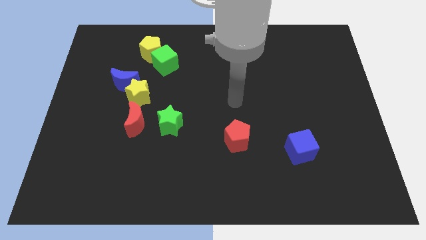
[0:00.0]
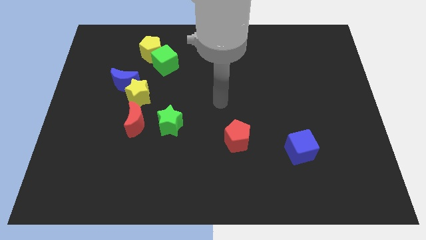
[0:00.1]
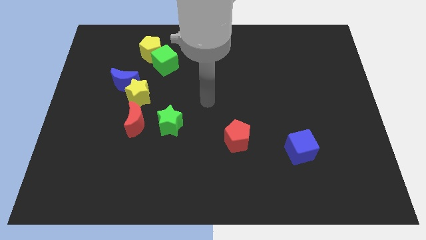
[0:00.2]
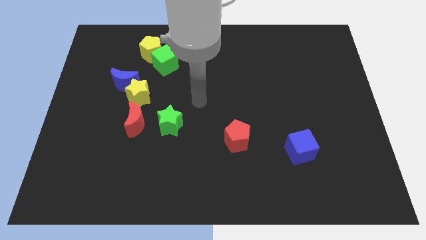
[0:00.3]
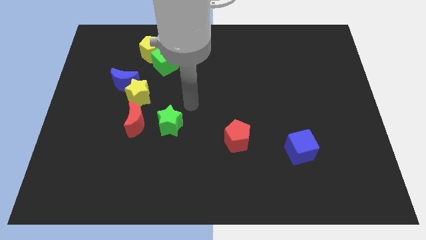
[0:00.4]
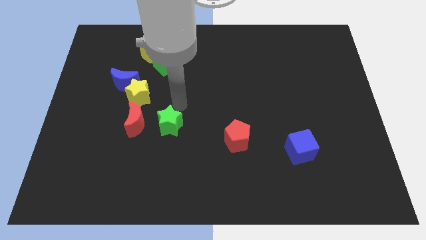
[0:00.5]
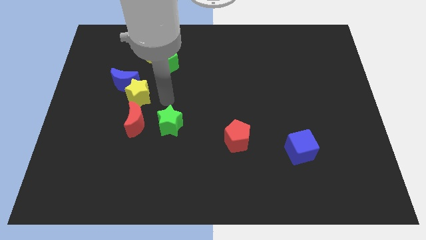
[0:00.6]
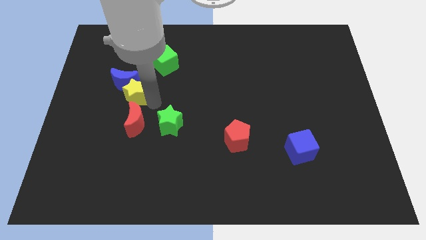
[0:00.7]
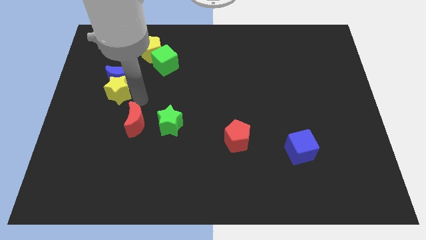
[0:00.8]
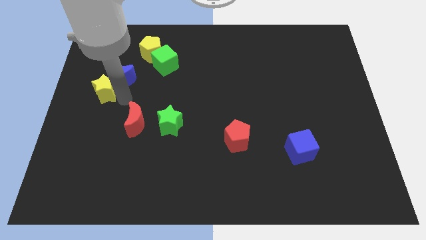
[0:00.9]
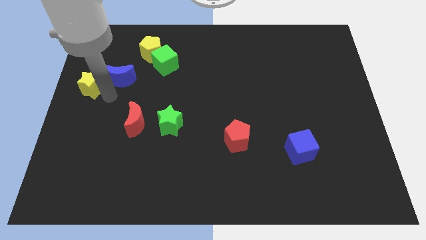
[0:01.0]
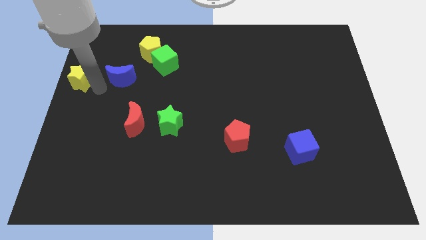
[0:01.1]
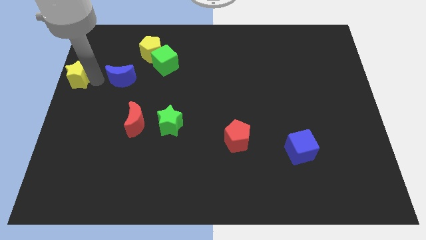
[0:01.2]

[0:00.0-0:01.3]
move the blue moon away from the yellow star

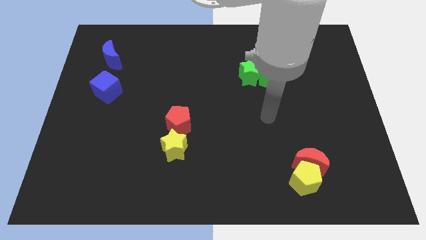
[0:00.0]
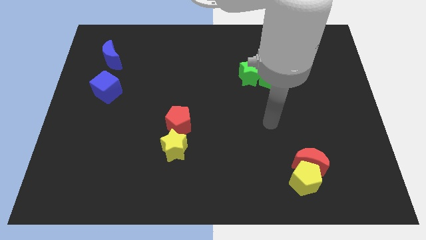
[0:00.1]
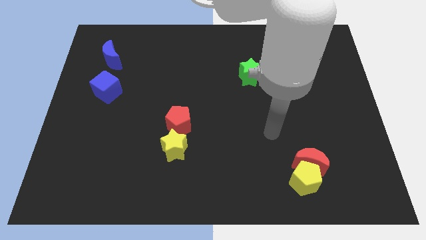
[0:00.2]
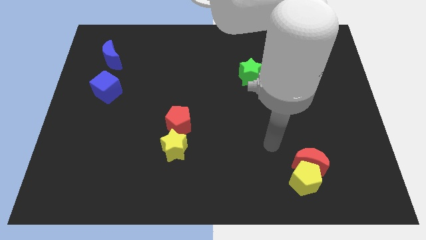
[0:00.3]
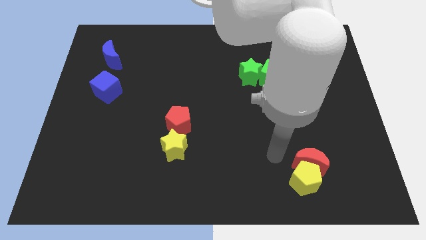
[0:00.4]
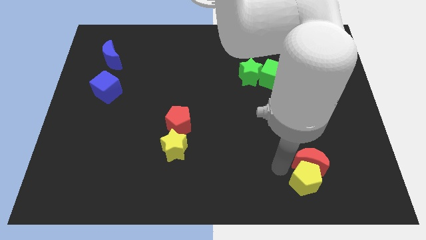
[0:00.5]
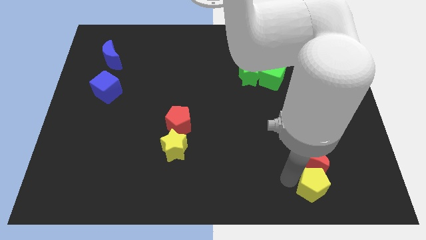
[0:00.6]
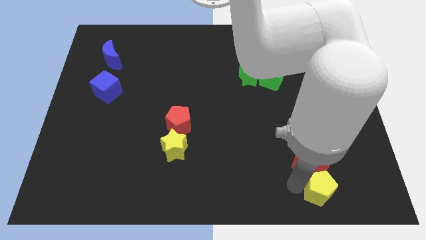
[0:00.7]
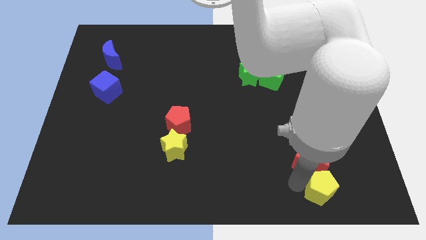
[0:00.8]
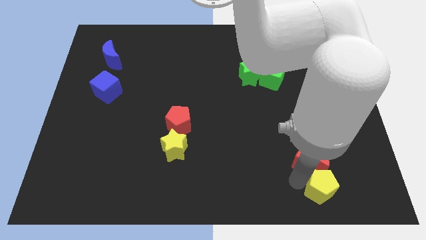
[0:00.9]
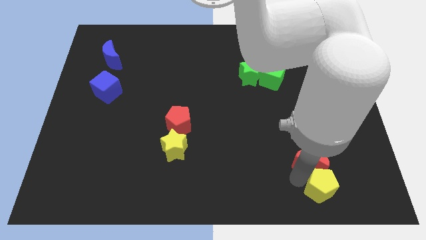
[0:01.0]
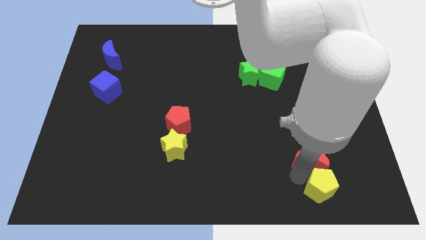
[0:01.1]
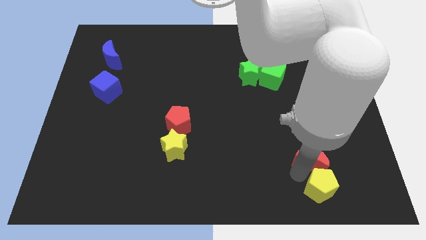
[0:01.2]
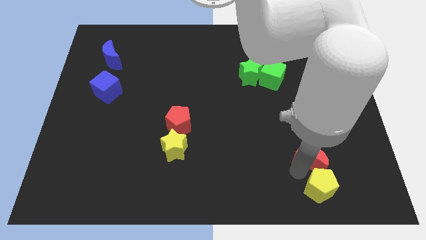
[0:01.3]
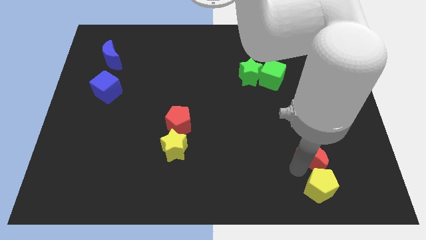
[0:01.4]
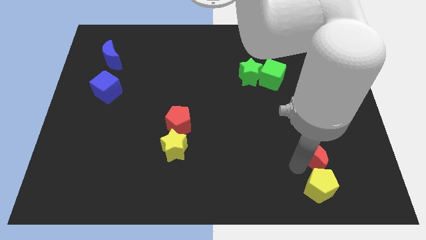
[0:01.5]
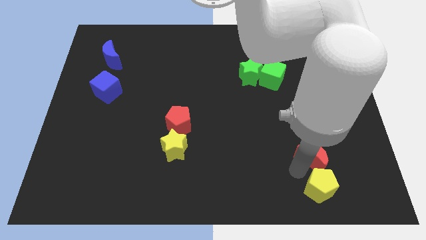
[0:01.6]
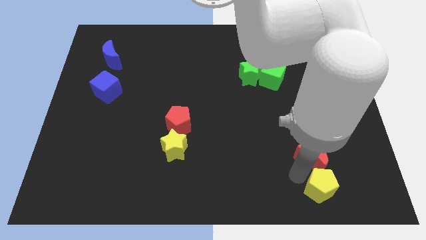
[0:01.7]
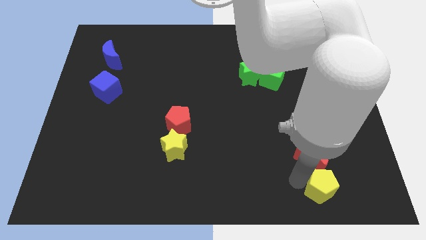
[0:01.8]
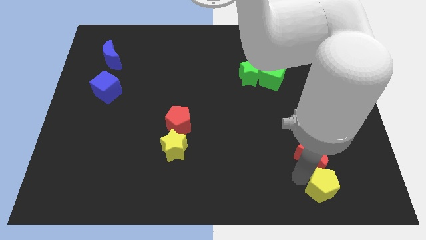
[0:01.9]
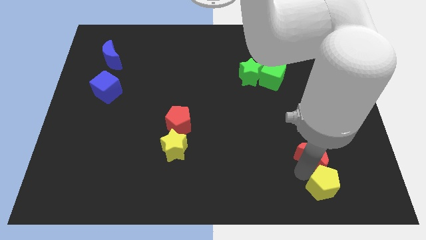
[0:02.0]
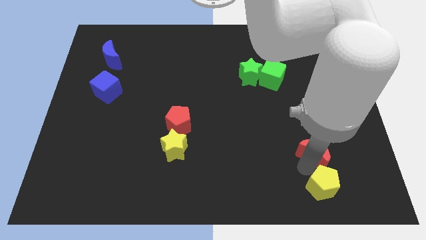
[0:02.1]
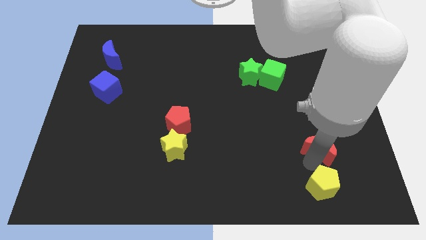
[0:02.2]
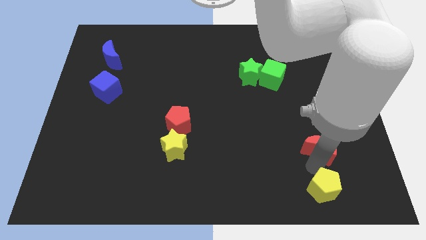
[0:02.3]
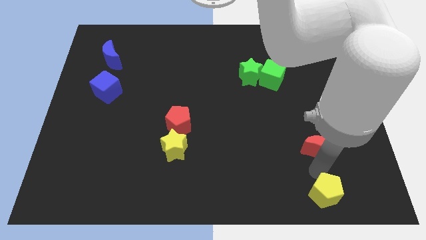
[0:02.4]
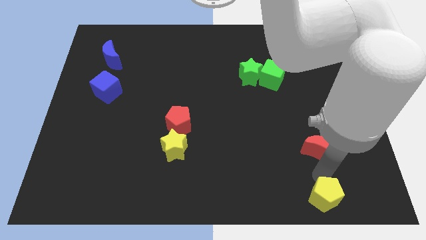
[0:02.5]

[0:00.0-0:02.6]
separate the red moon from the yellow pentagon

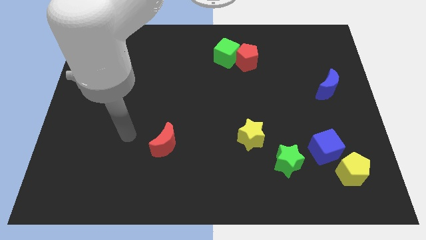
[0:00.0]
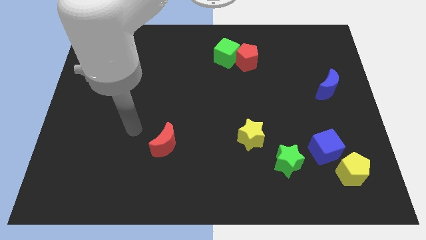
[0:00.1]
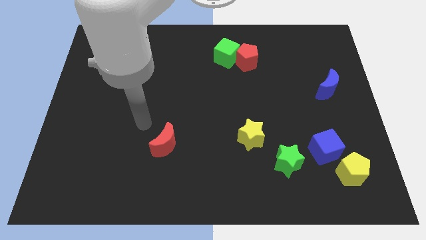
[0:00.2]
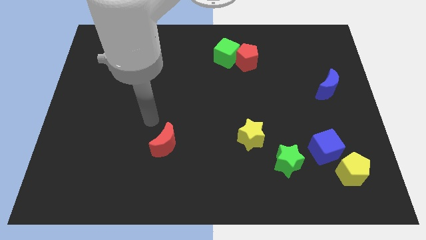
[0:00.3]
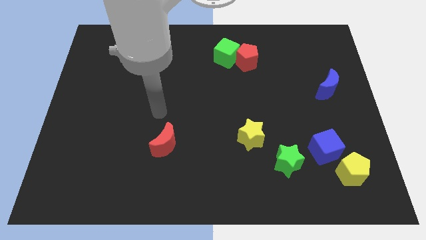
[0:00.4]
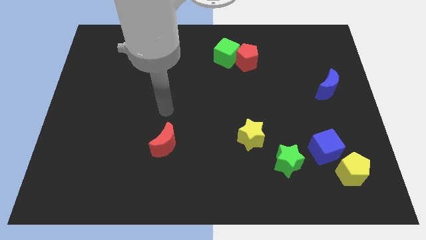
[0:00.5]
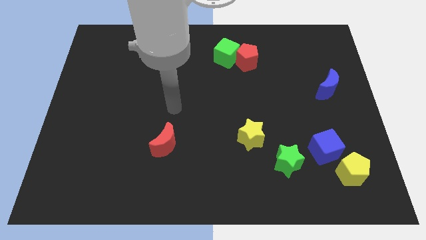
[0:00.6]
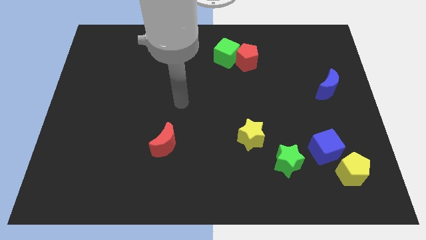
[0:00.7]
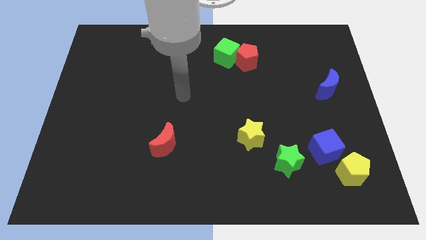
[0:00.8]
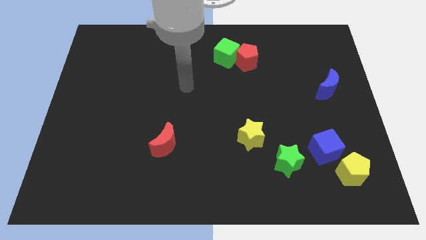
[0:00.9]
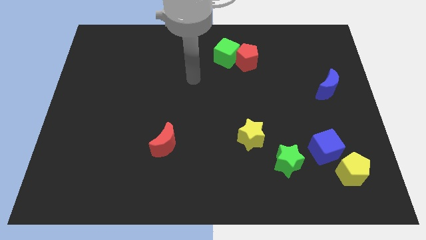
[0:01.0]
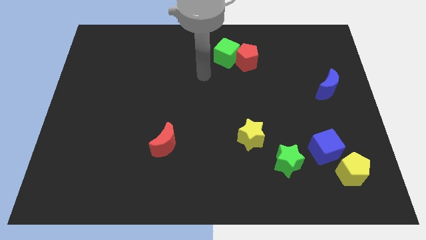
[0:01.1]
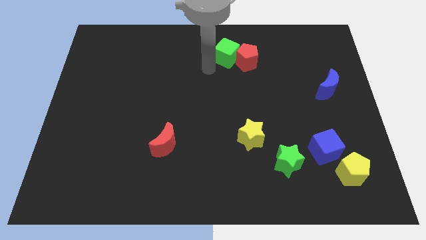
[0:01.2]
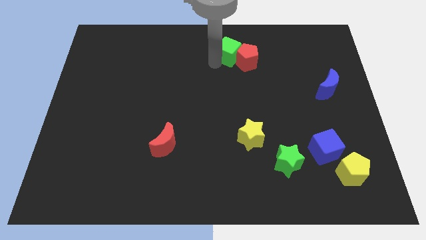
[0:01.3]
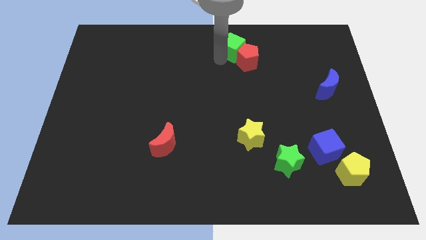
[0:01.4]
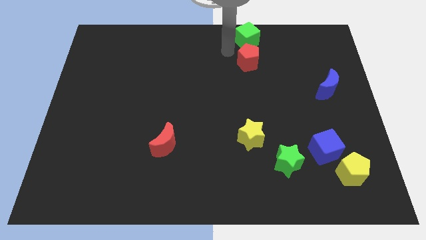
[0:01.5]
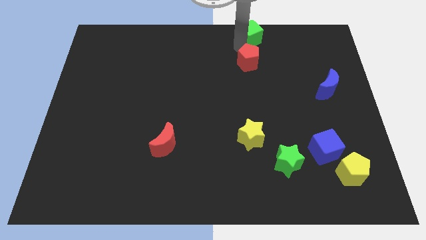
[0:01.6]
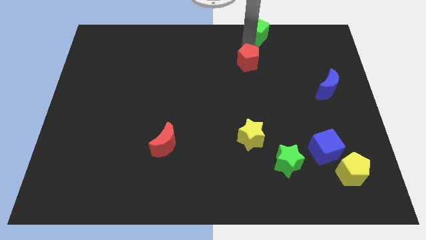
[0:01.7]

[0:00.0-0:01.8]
separate the red pentagon from the green cube

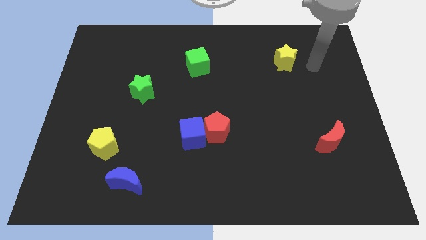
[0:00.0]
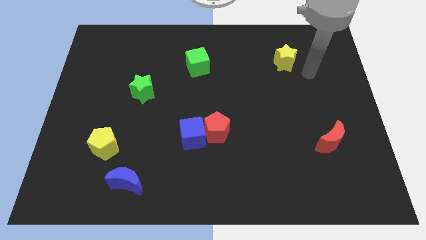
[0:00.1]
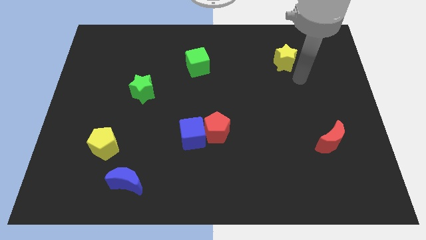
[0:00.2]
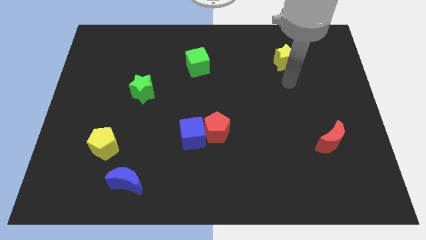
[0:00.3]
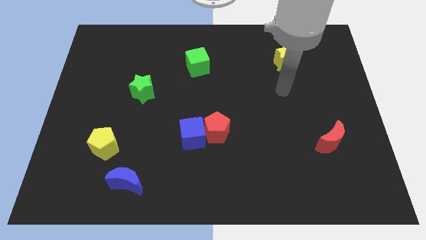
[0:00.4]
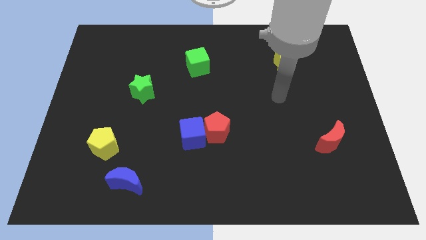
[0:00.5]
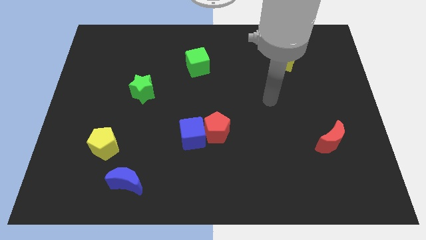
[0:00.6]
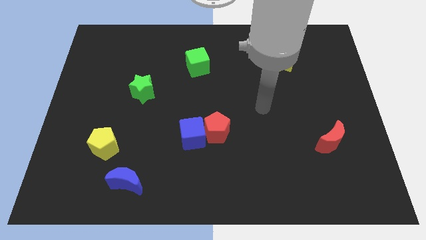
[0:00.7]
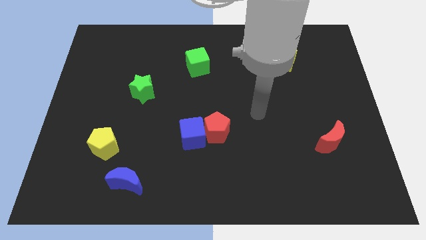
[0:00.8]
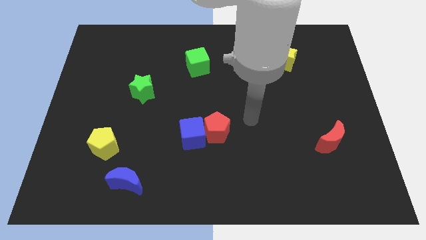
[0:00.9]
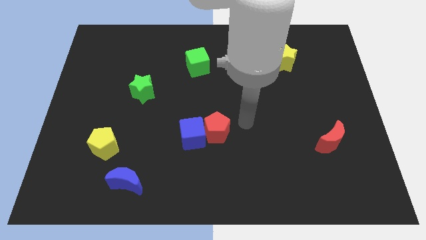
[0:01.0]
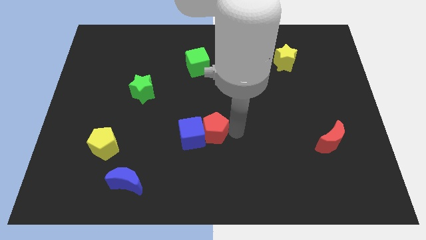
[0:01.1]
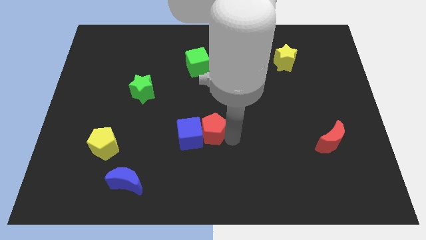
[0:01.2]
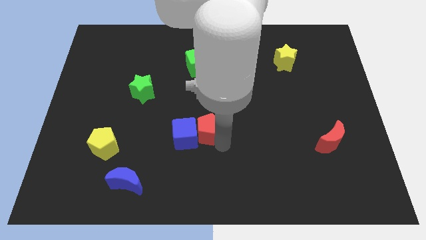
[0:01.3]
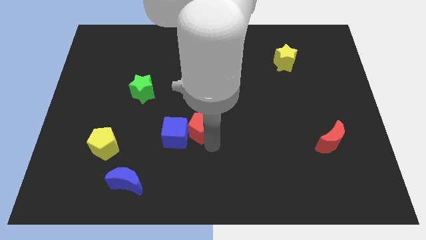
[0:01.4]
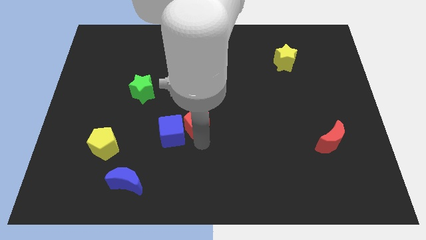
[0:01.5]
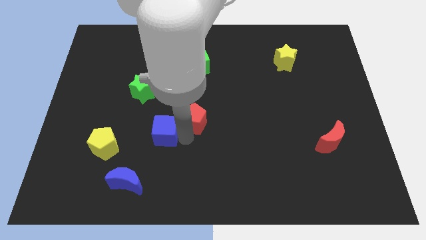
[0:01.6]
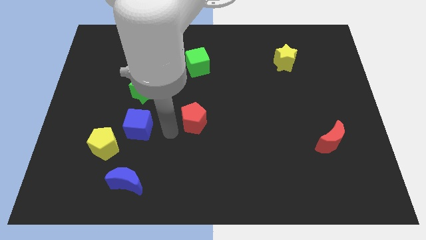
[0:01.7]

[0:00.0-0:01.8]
pull the red pentagon apart from the blue cube

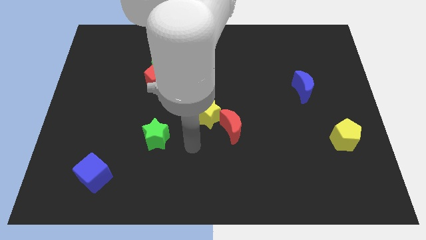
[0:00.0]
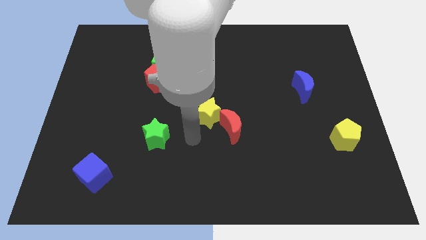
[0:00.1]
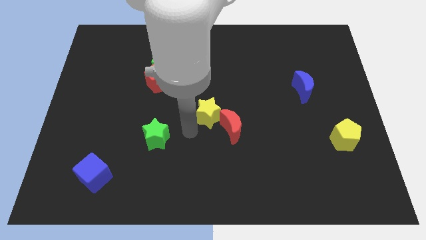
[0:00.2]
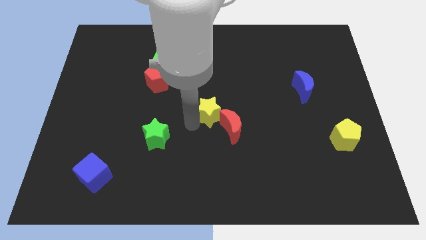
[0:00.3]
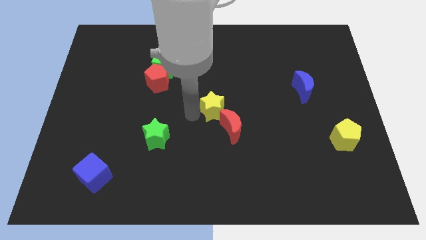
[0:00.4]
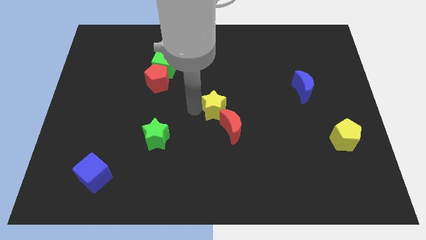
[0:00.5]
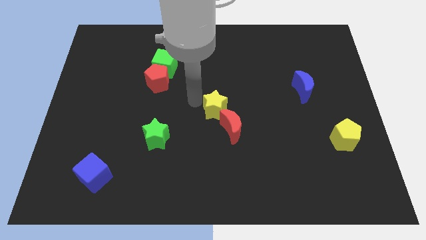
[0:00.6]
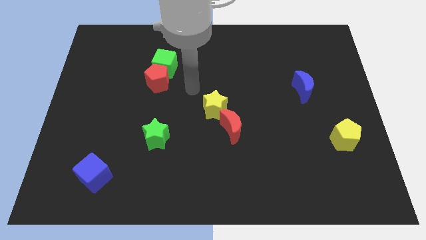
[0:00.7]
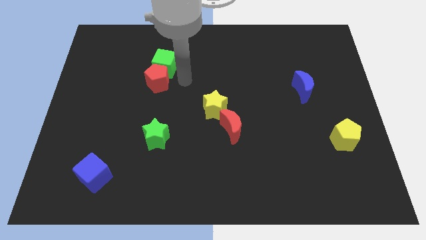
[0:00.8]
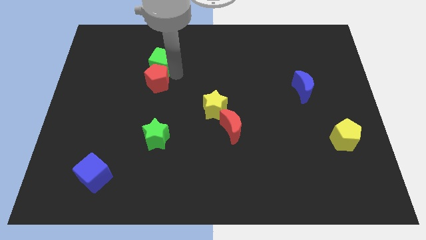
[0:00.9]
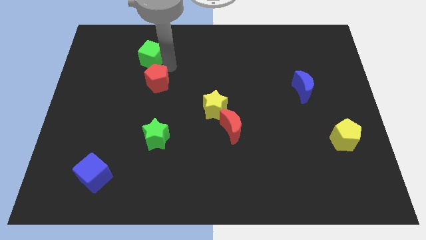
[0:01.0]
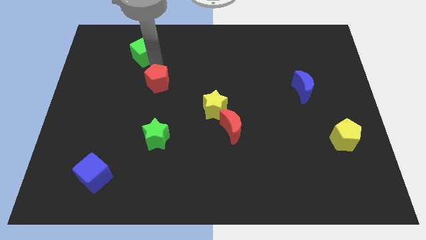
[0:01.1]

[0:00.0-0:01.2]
move the red pentagon away from the green cube

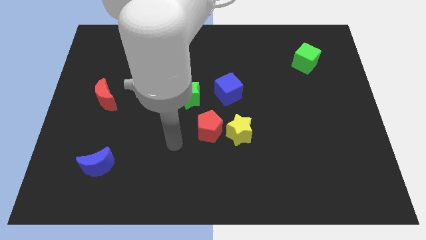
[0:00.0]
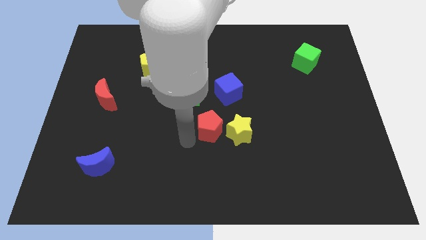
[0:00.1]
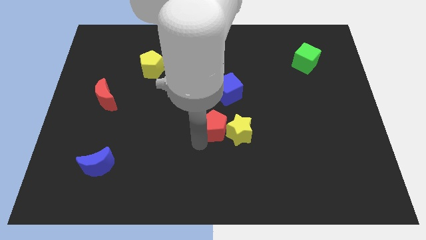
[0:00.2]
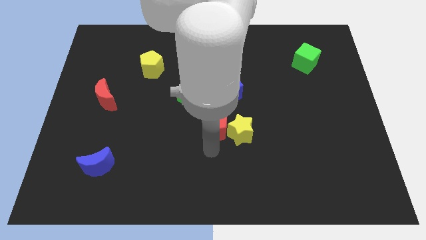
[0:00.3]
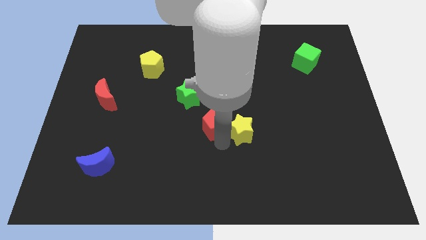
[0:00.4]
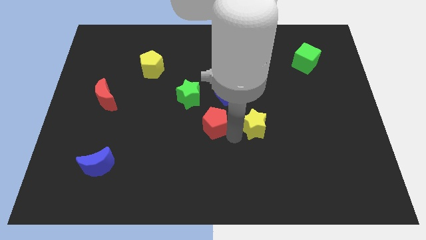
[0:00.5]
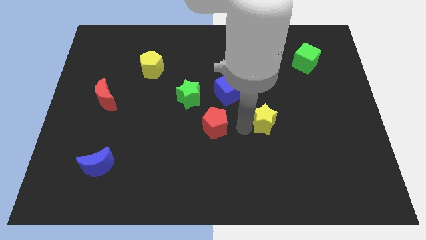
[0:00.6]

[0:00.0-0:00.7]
separate the red pentagon from the yellow star
